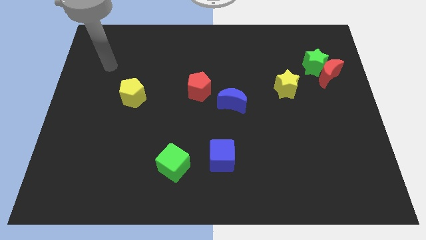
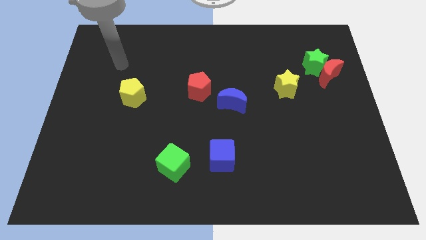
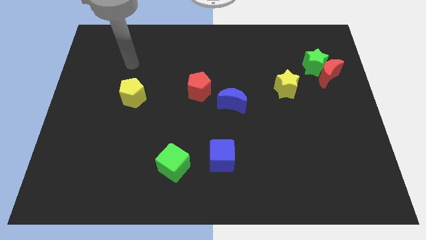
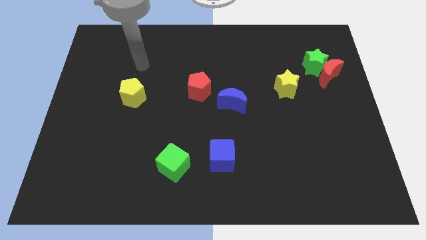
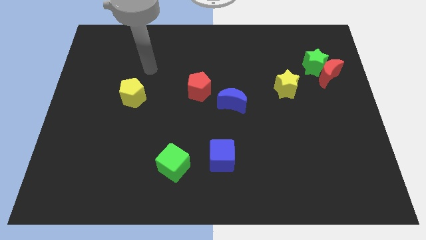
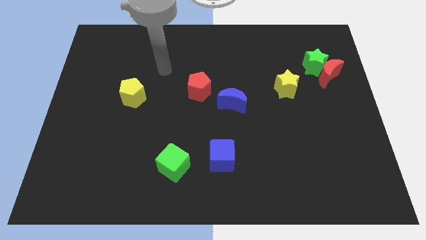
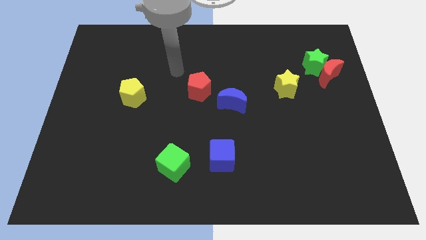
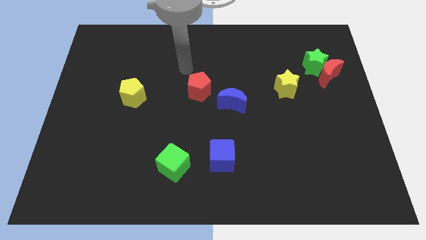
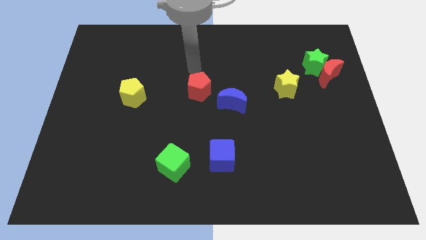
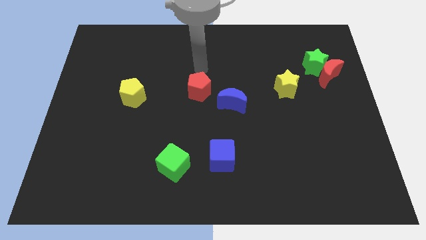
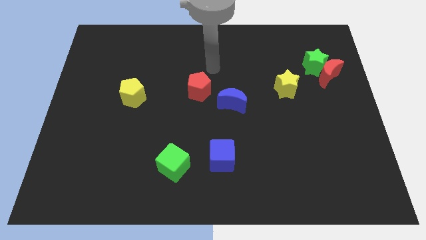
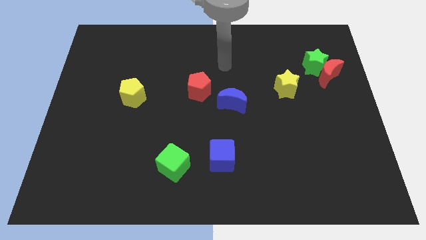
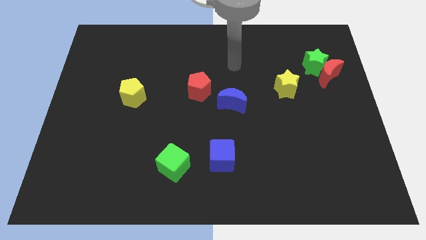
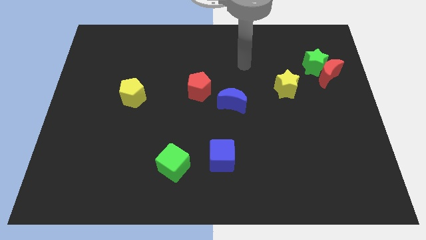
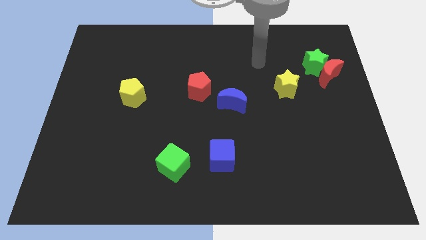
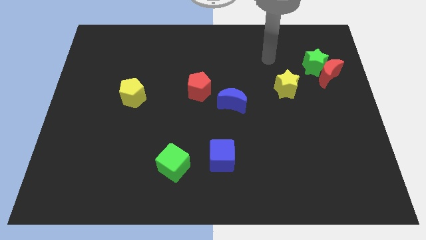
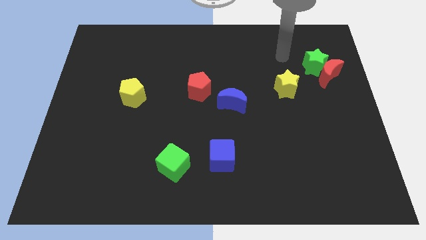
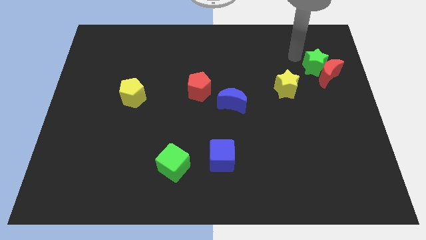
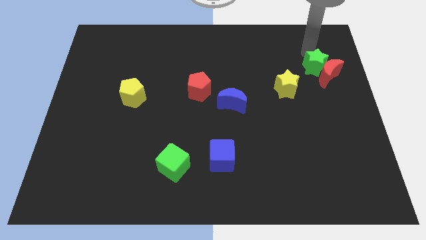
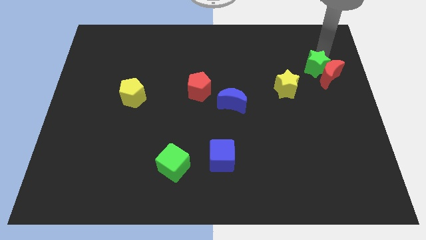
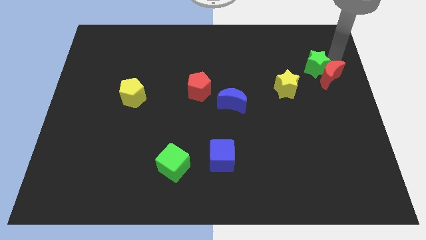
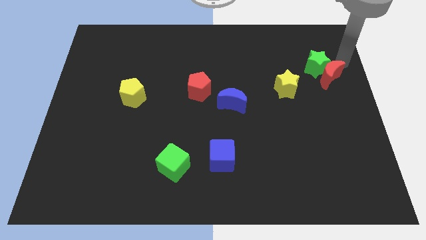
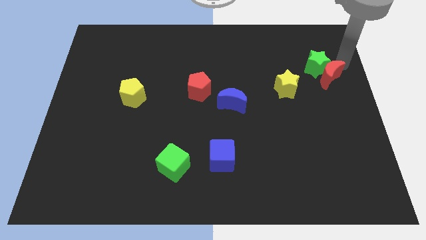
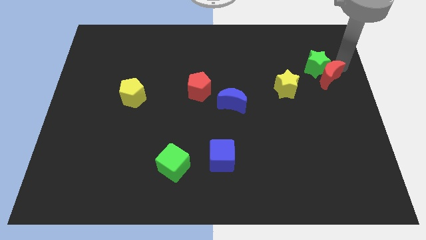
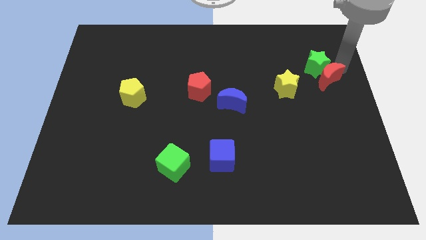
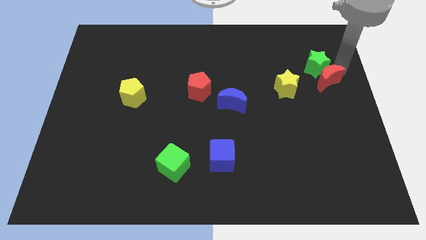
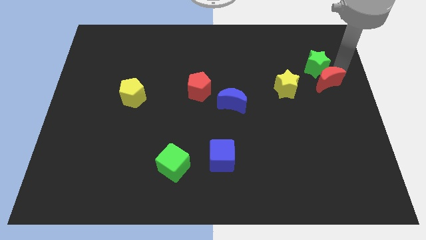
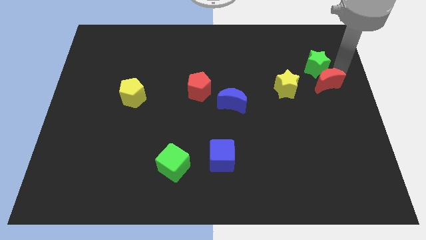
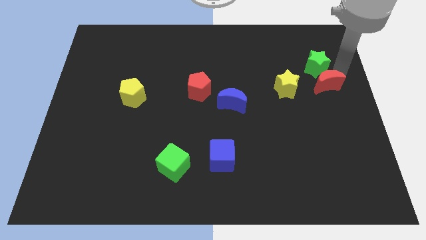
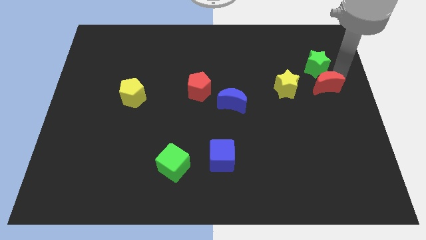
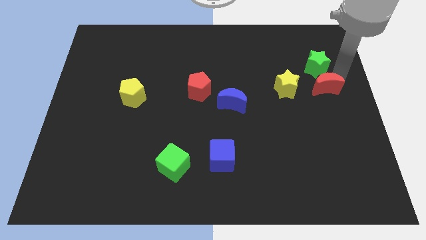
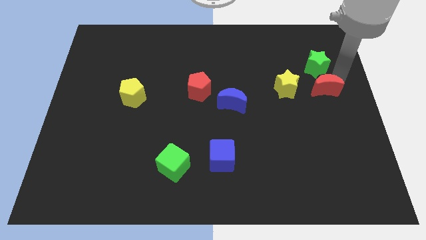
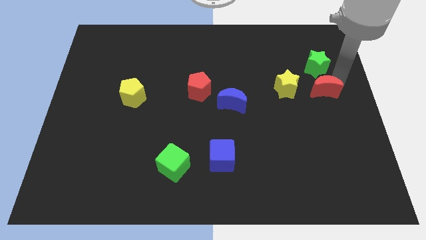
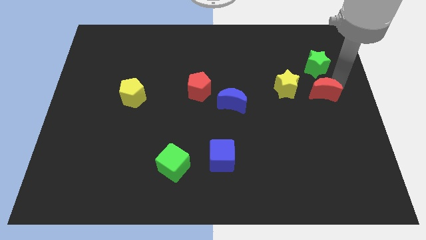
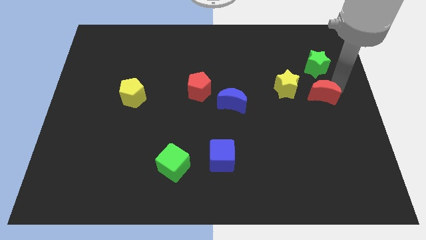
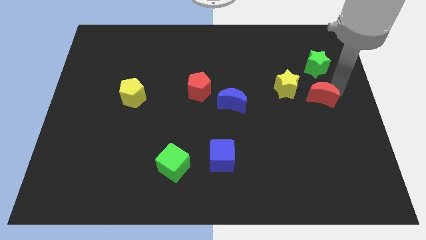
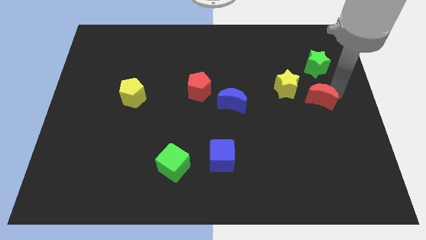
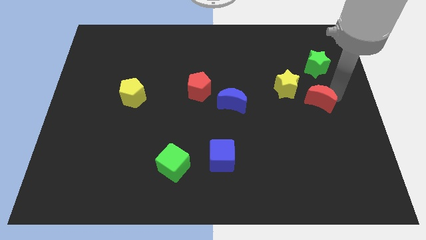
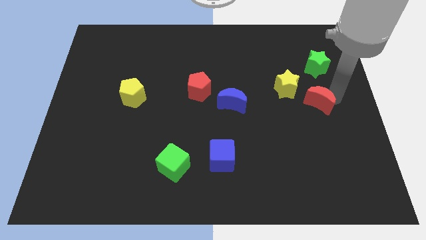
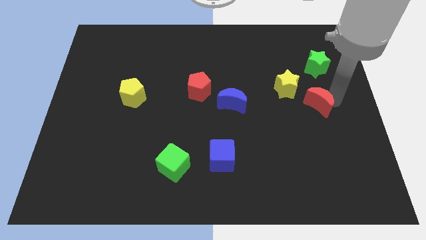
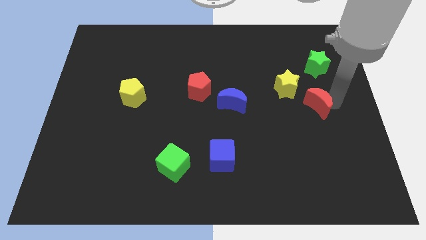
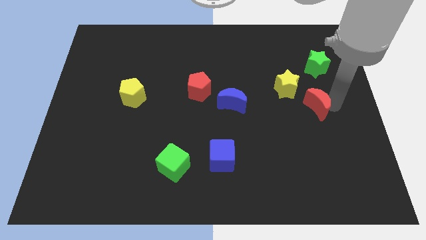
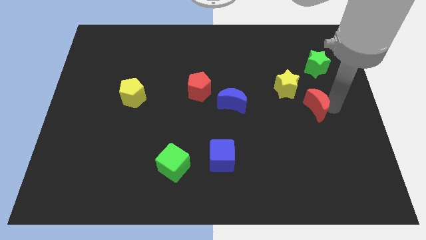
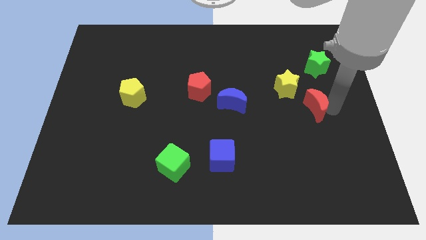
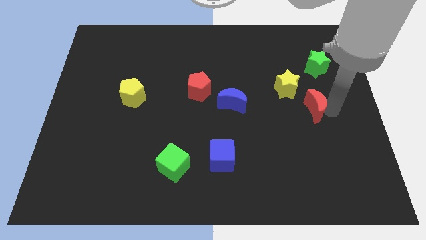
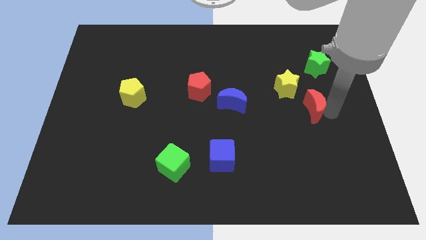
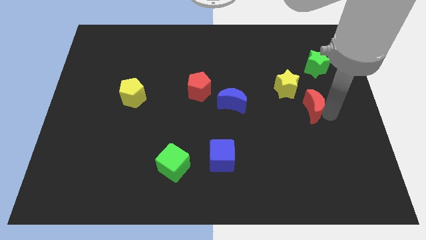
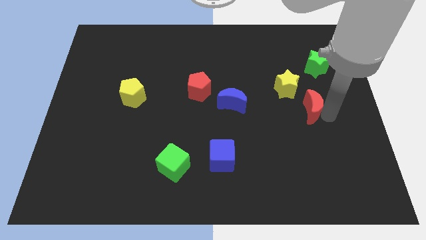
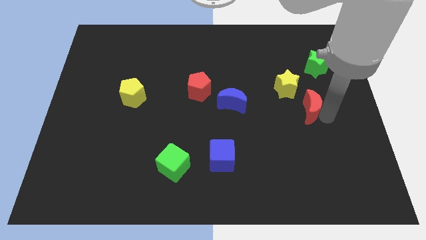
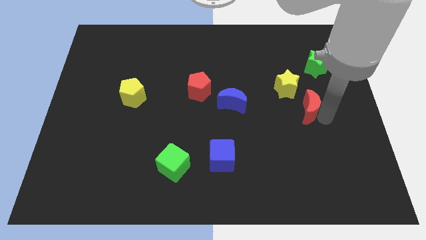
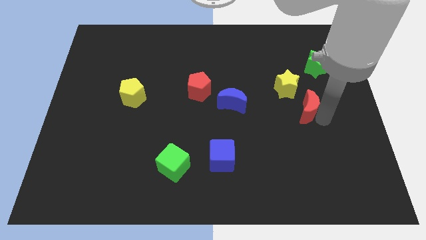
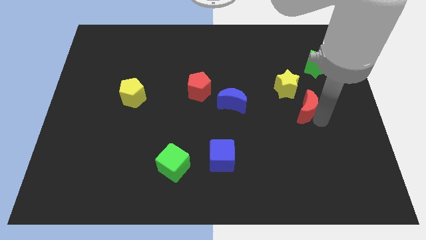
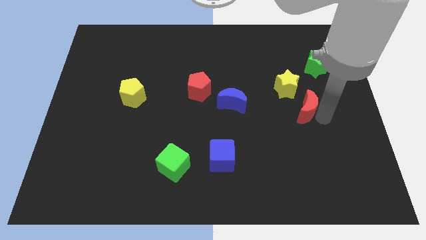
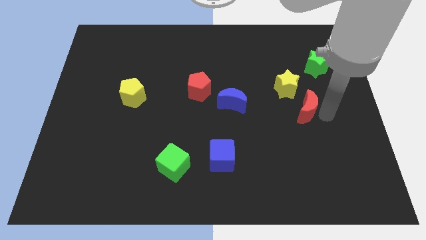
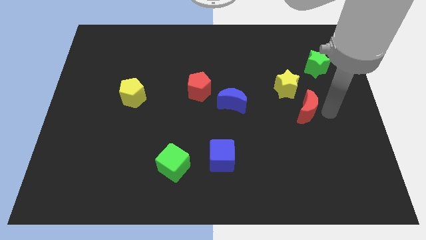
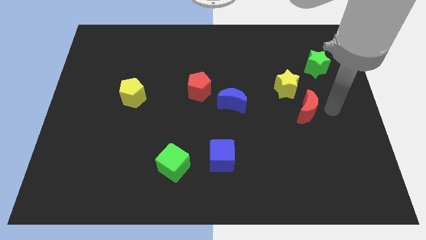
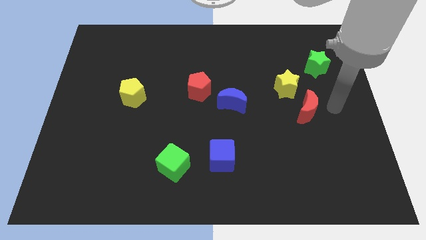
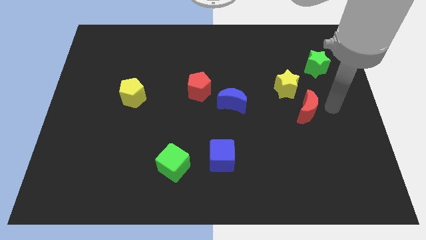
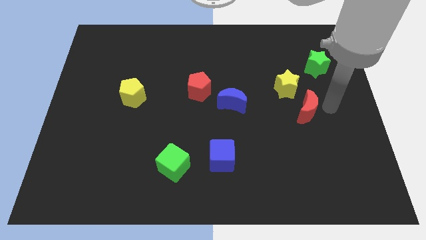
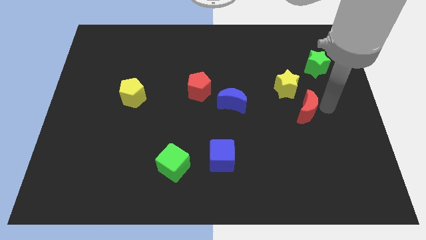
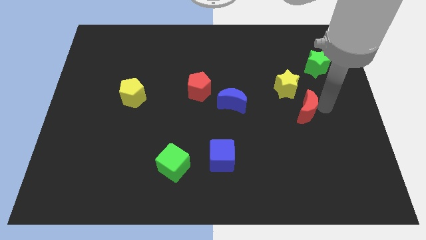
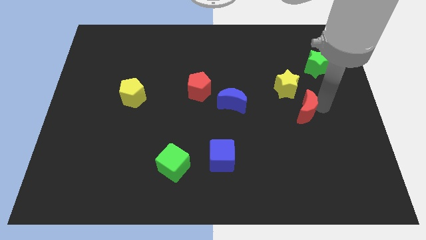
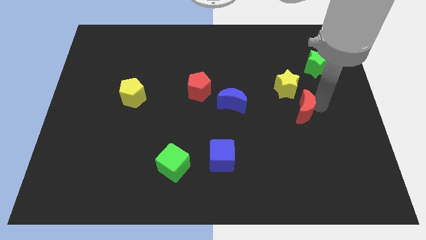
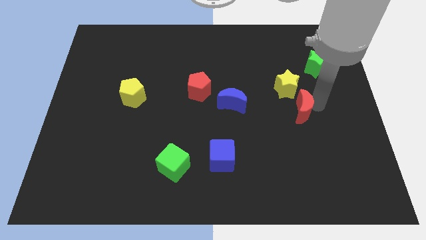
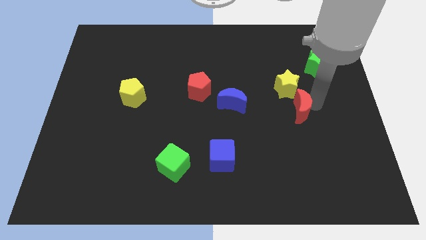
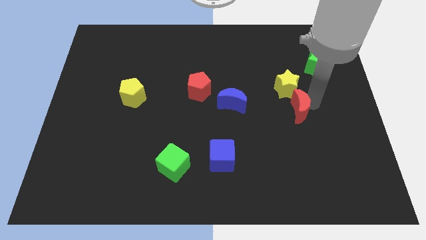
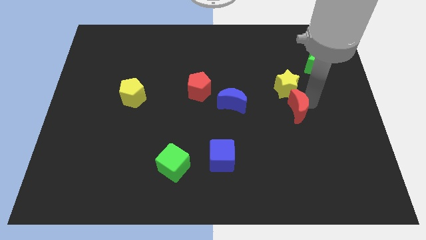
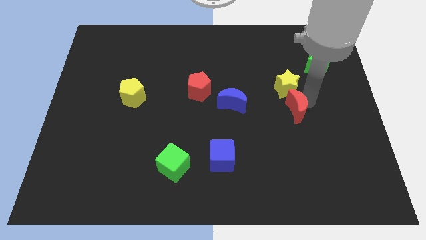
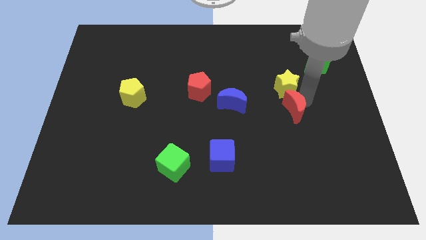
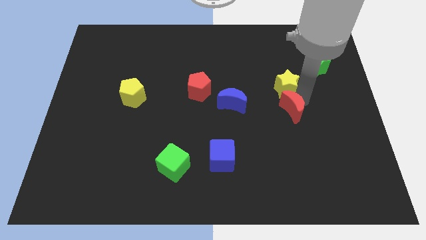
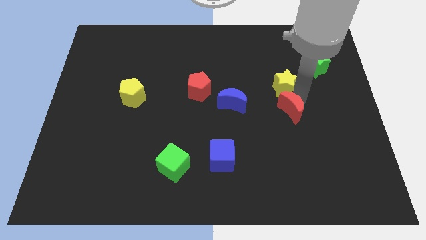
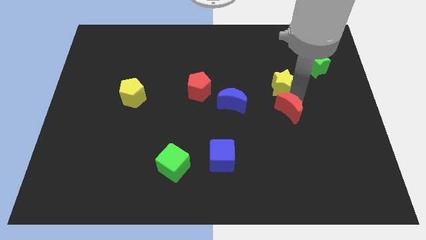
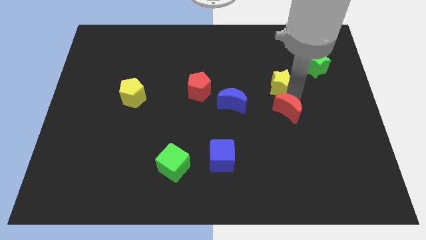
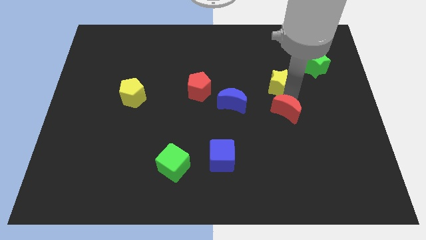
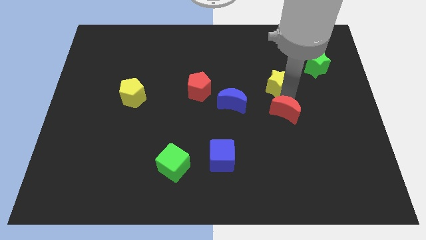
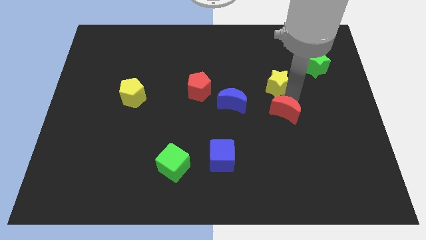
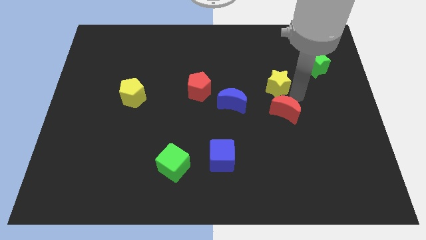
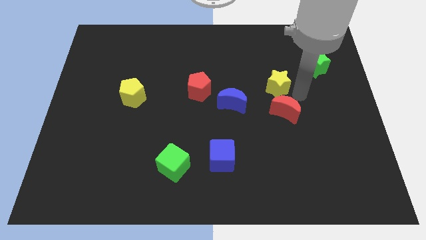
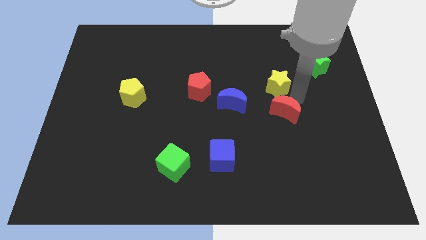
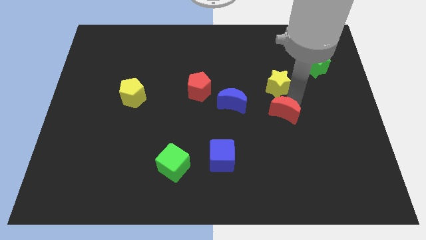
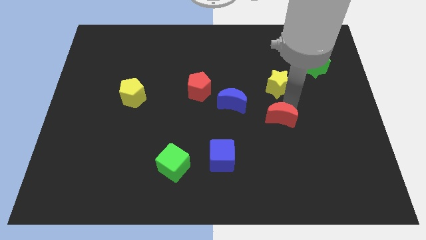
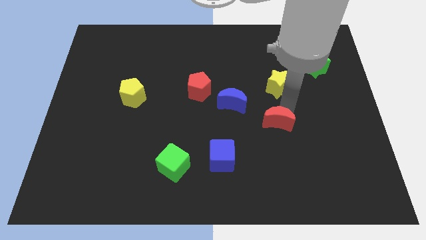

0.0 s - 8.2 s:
slide the red moon down and to the left
